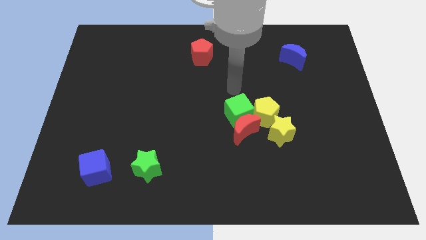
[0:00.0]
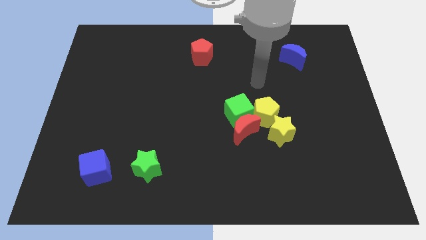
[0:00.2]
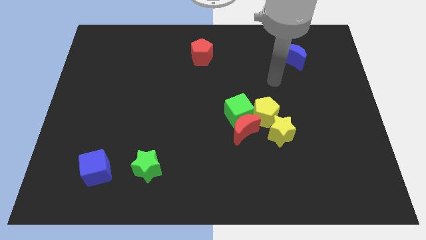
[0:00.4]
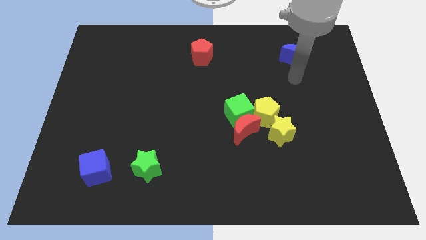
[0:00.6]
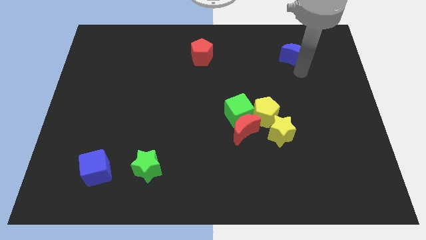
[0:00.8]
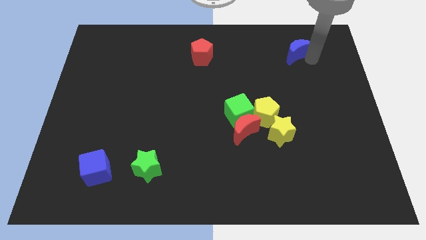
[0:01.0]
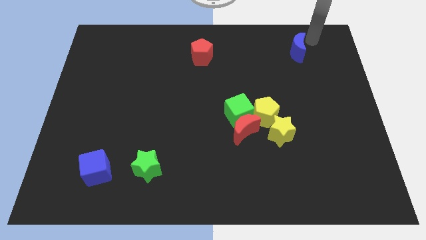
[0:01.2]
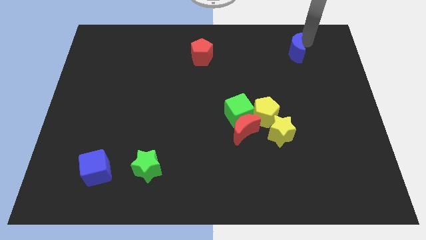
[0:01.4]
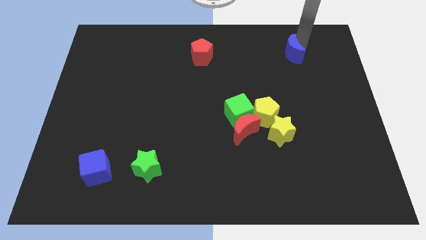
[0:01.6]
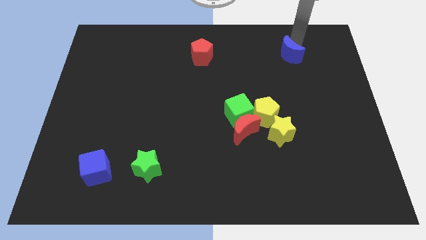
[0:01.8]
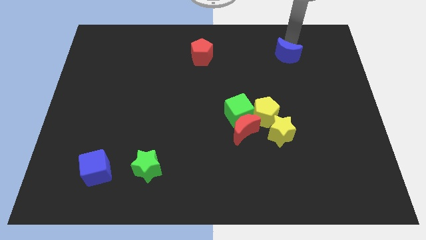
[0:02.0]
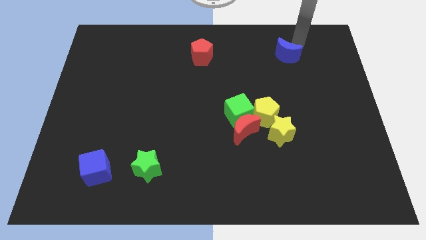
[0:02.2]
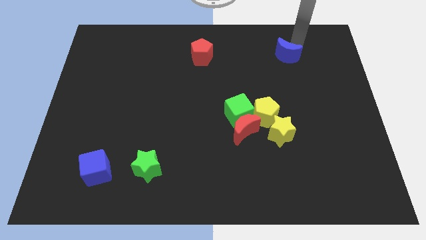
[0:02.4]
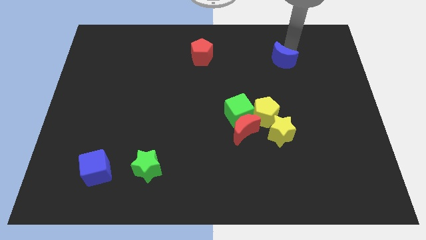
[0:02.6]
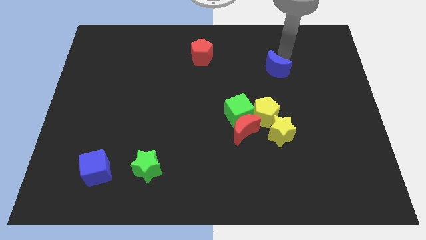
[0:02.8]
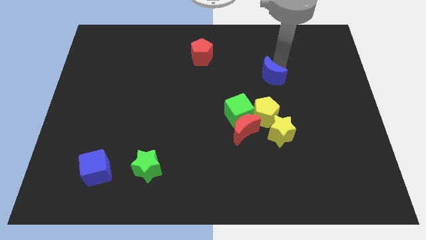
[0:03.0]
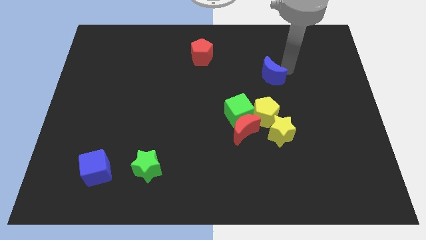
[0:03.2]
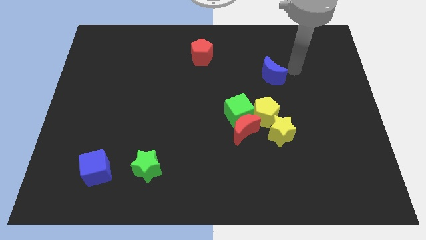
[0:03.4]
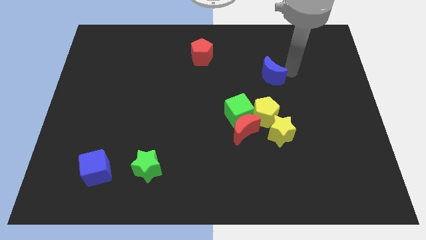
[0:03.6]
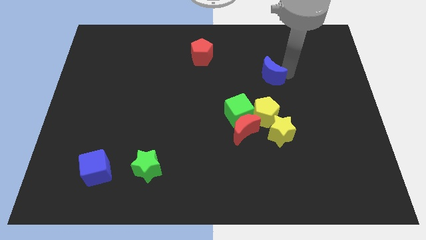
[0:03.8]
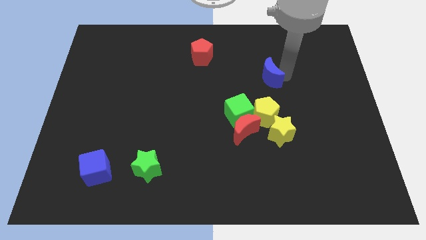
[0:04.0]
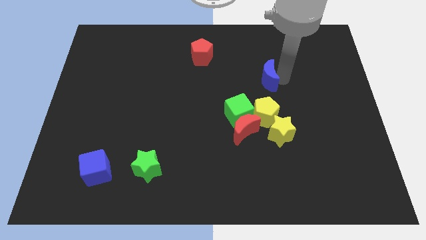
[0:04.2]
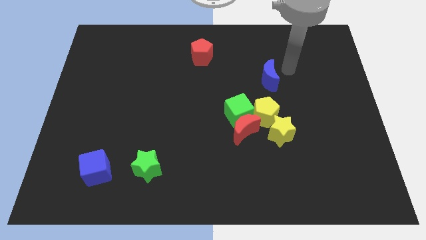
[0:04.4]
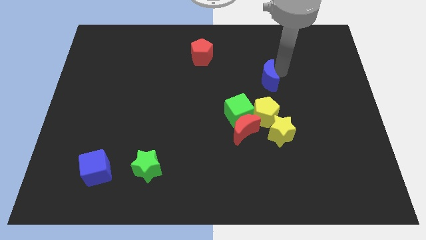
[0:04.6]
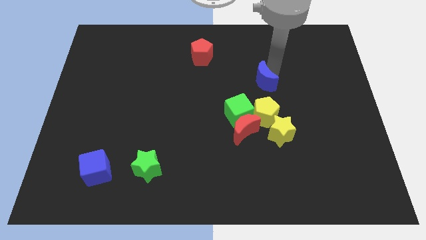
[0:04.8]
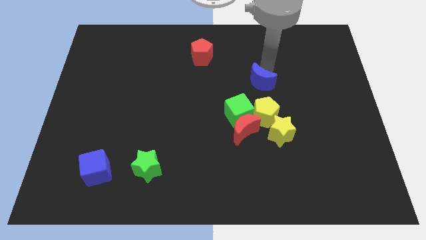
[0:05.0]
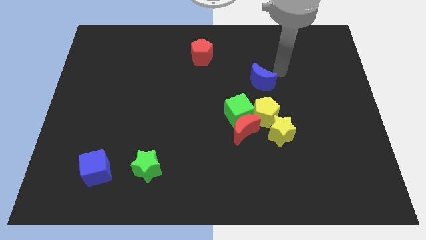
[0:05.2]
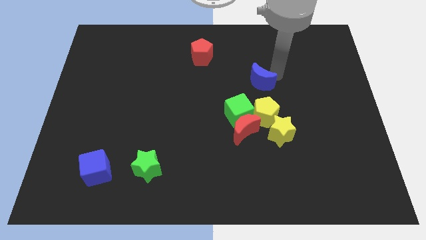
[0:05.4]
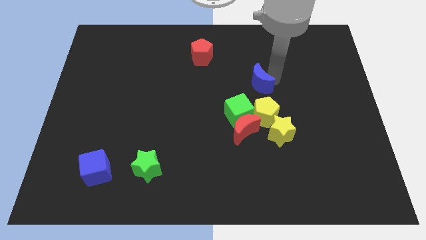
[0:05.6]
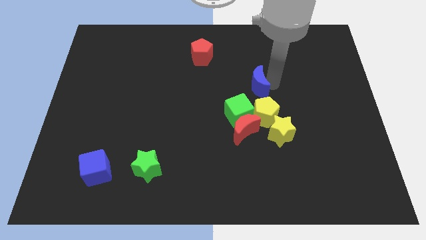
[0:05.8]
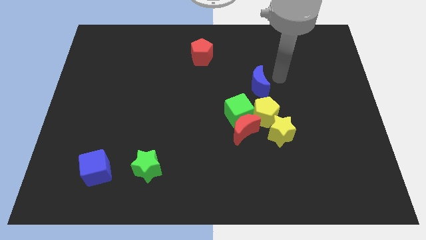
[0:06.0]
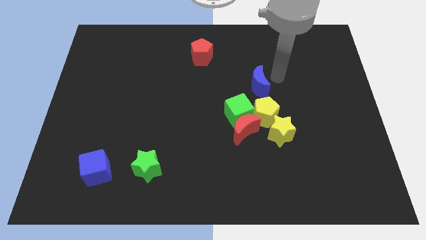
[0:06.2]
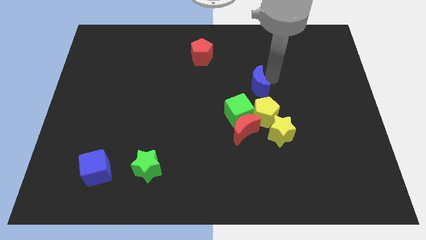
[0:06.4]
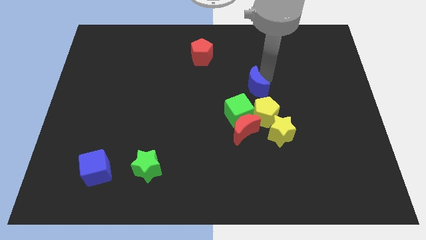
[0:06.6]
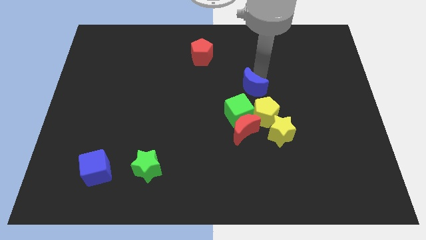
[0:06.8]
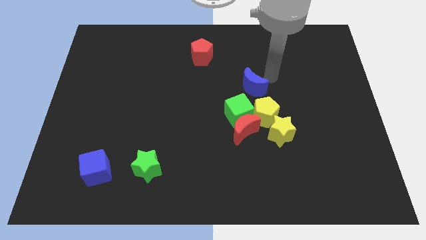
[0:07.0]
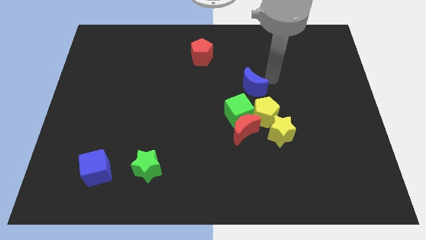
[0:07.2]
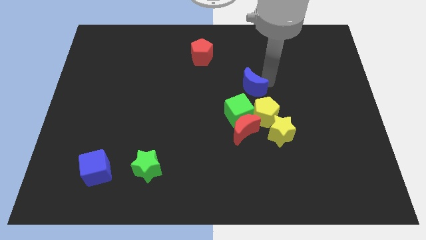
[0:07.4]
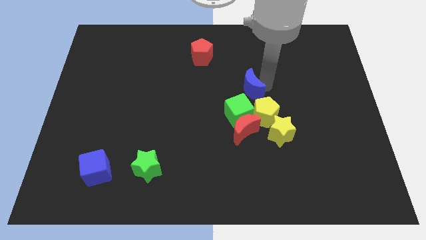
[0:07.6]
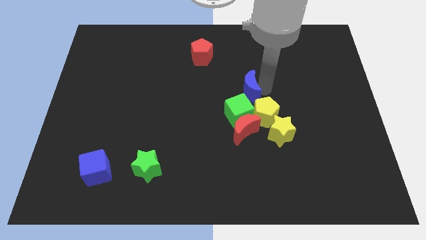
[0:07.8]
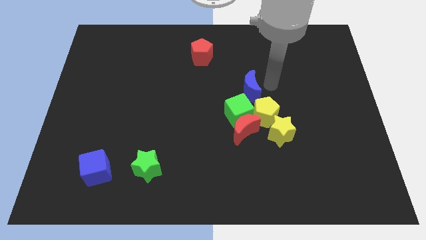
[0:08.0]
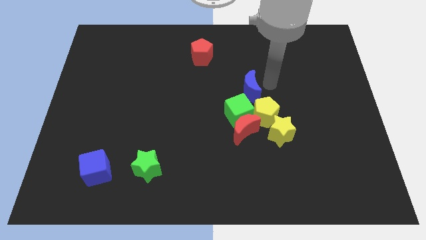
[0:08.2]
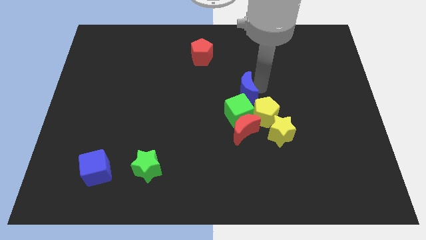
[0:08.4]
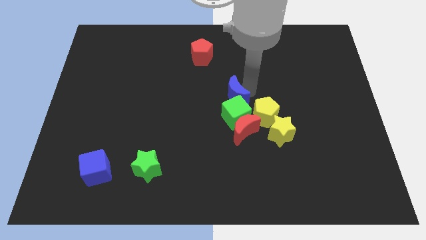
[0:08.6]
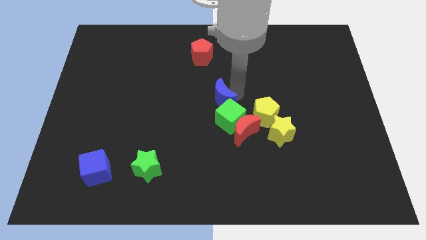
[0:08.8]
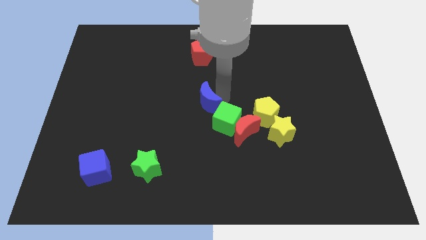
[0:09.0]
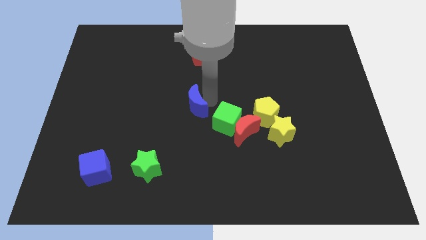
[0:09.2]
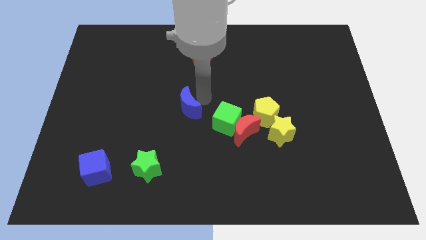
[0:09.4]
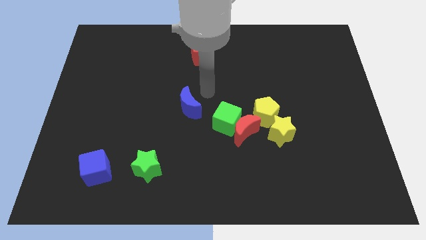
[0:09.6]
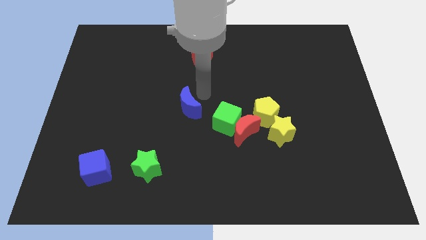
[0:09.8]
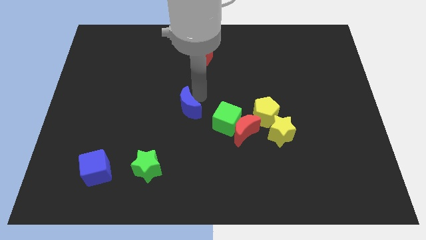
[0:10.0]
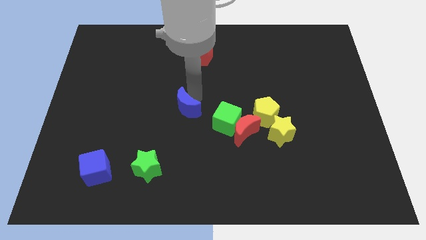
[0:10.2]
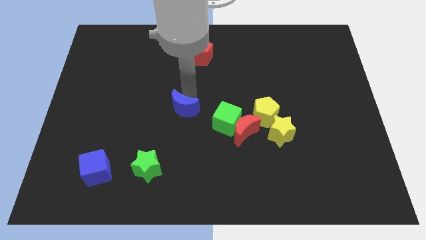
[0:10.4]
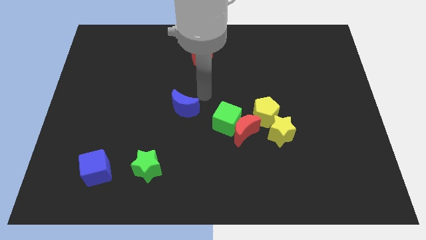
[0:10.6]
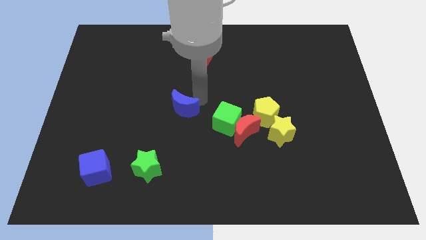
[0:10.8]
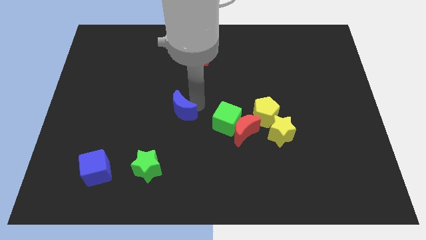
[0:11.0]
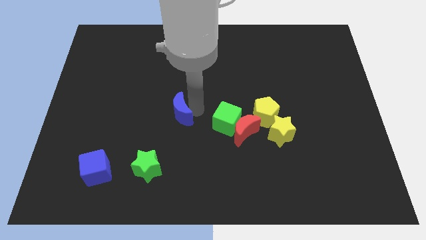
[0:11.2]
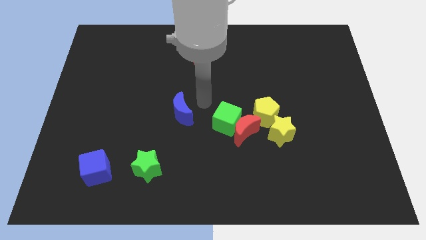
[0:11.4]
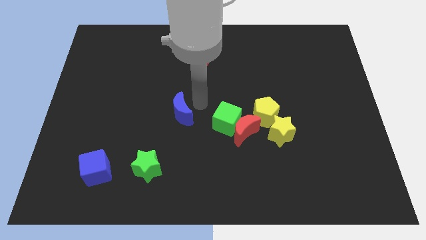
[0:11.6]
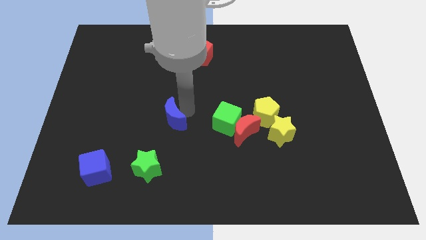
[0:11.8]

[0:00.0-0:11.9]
slide the blue moon to the top of the green star

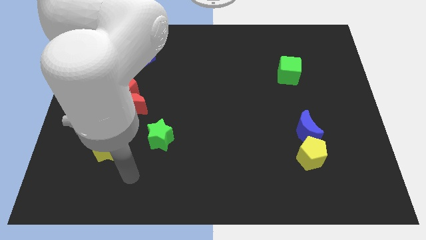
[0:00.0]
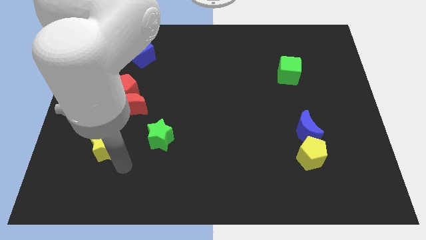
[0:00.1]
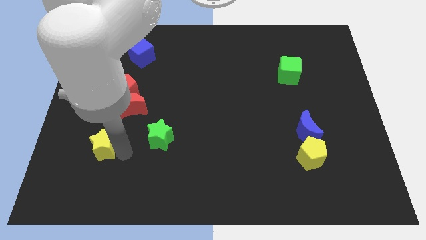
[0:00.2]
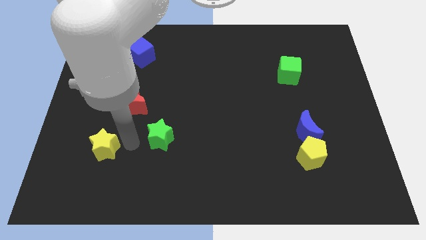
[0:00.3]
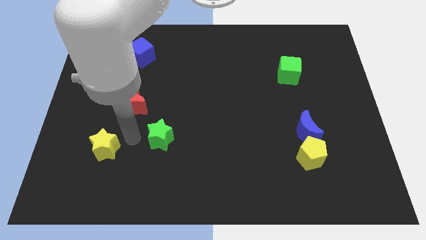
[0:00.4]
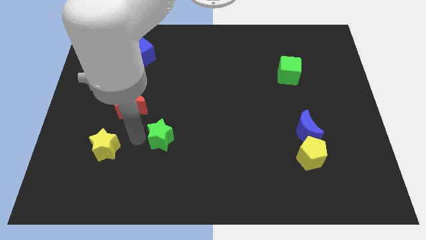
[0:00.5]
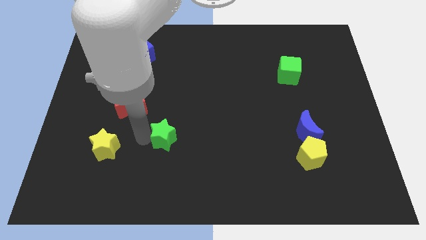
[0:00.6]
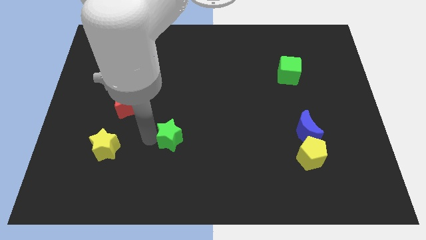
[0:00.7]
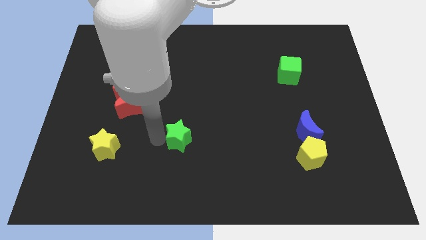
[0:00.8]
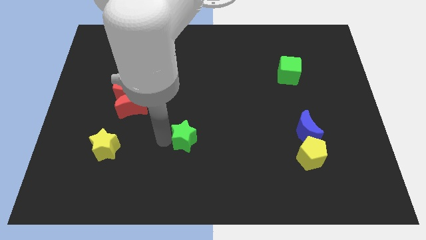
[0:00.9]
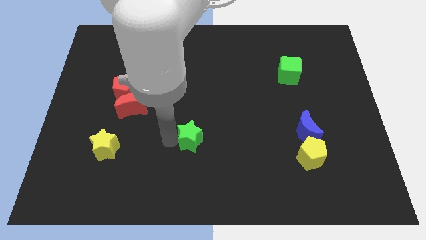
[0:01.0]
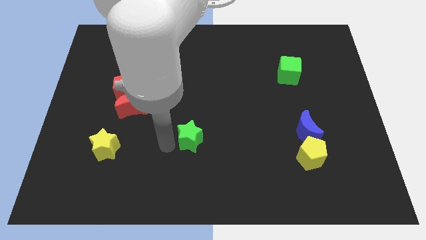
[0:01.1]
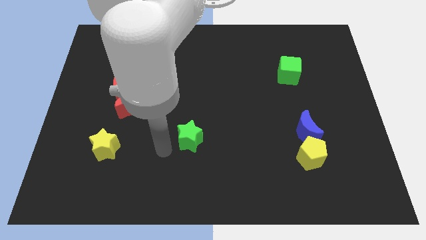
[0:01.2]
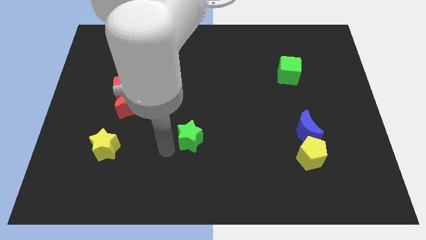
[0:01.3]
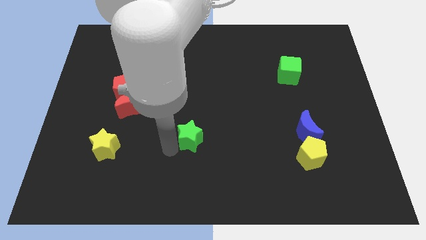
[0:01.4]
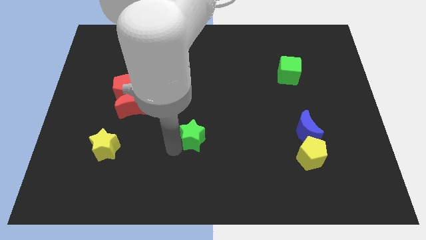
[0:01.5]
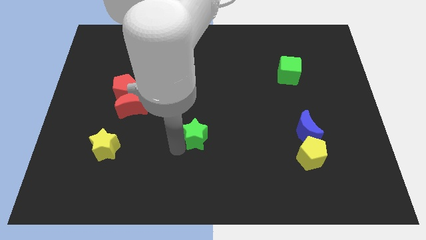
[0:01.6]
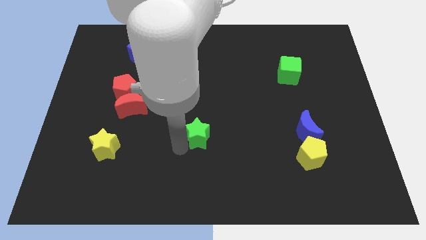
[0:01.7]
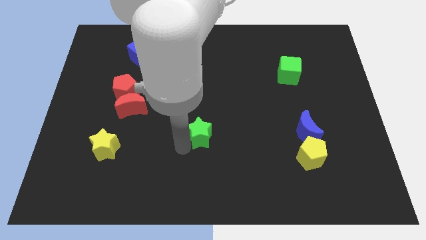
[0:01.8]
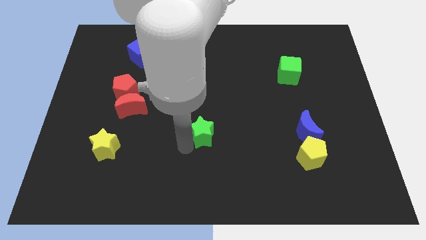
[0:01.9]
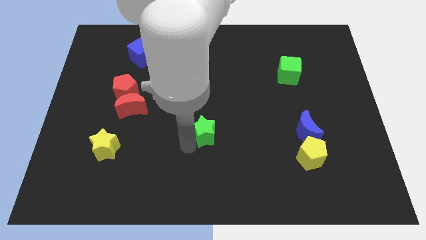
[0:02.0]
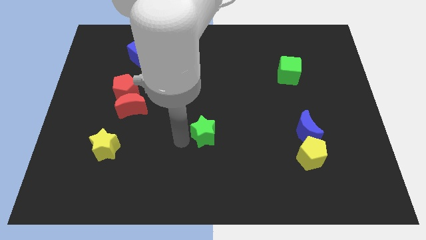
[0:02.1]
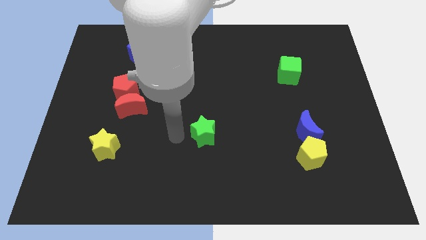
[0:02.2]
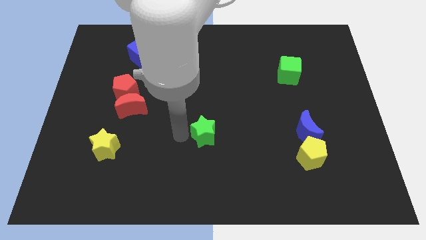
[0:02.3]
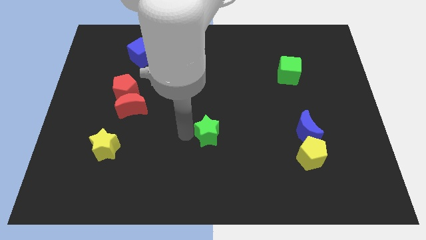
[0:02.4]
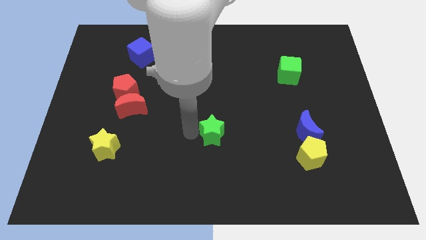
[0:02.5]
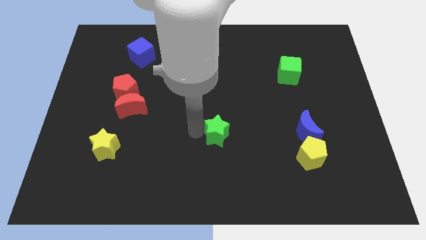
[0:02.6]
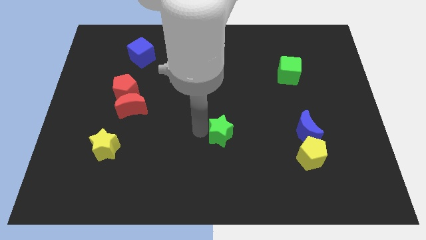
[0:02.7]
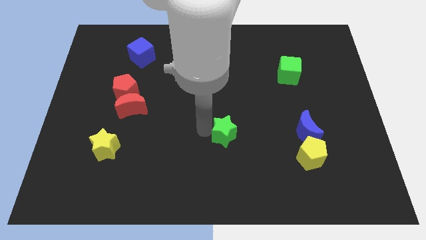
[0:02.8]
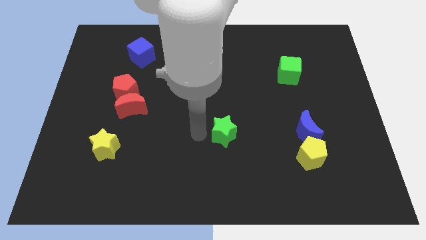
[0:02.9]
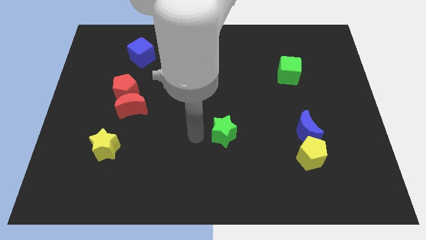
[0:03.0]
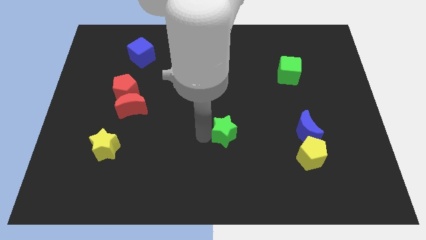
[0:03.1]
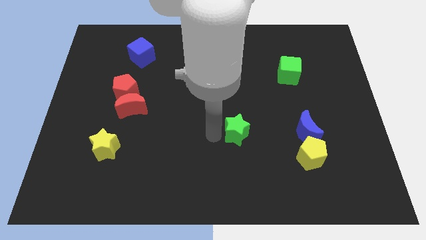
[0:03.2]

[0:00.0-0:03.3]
slide the green star just left of the blue moon
